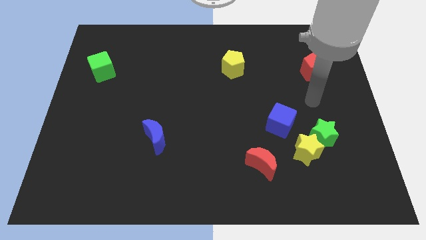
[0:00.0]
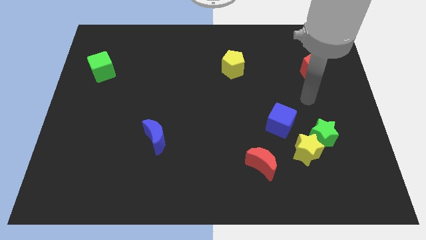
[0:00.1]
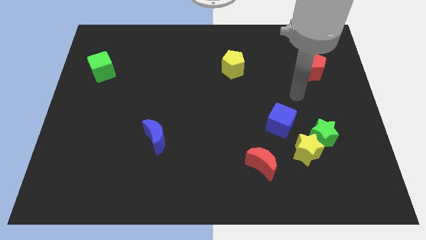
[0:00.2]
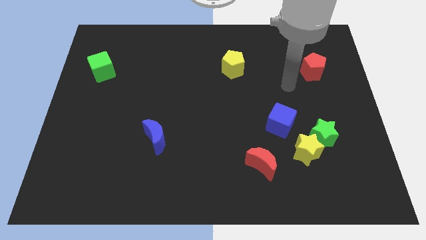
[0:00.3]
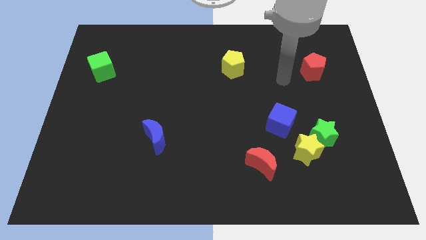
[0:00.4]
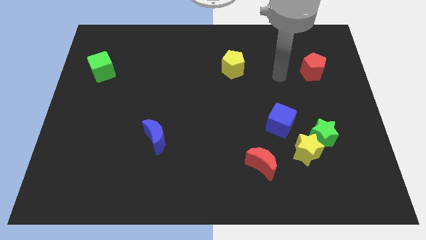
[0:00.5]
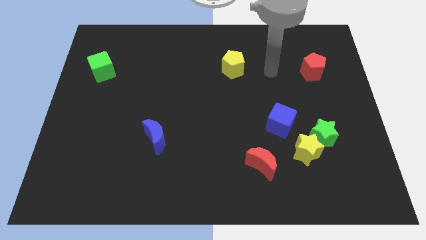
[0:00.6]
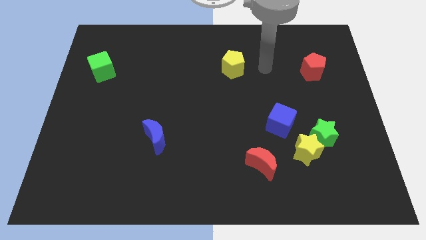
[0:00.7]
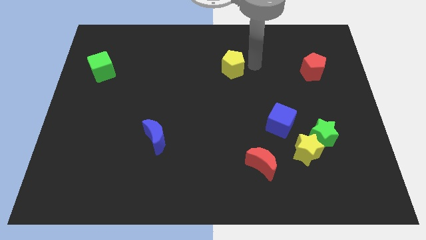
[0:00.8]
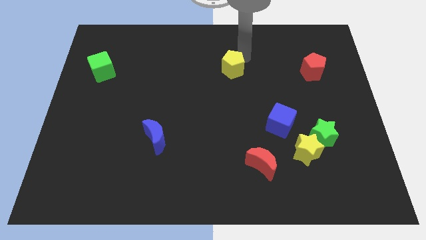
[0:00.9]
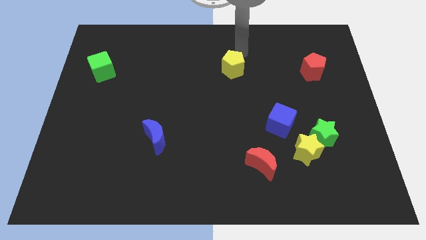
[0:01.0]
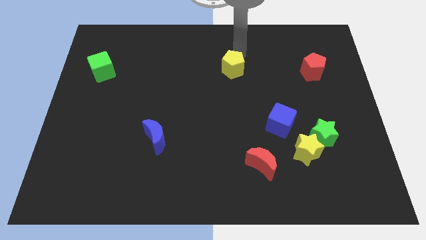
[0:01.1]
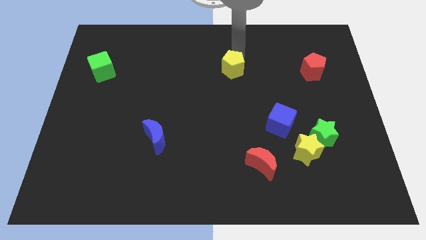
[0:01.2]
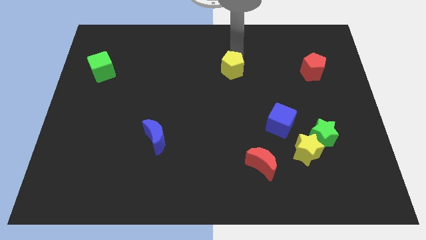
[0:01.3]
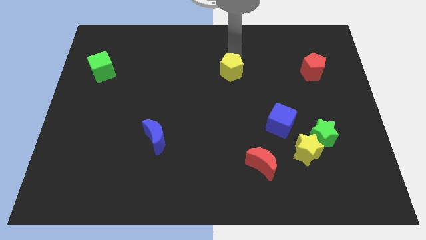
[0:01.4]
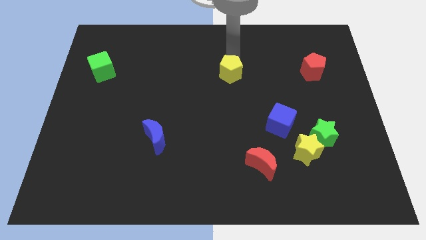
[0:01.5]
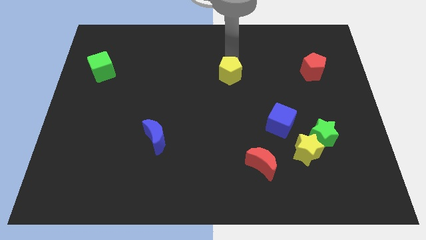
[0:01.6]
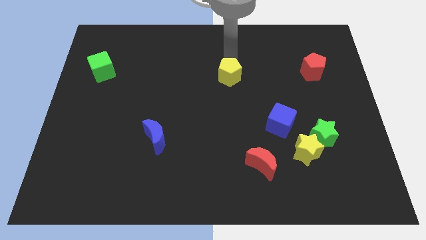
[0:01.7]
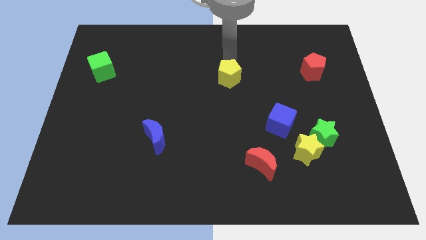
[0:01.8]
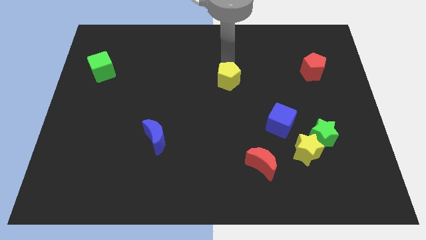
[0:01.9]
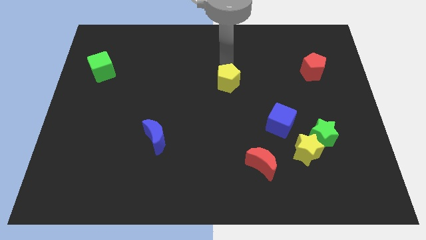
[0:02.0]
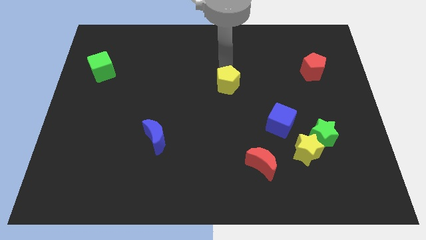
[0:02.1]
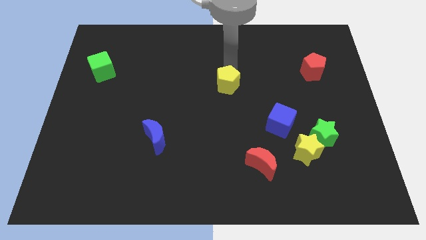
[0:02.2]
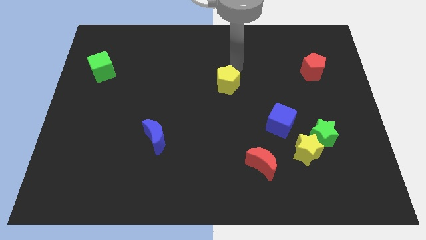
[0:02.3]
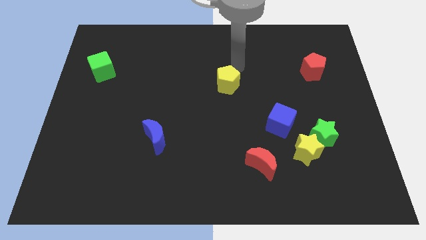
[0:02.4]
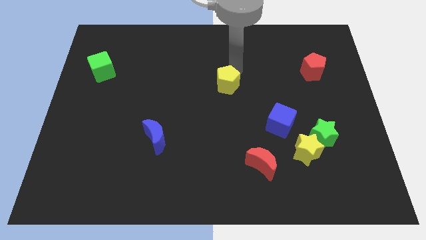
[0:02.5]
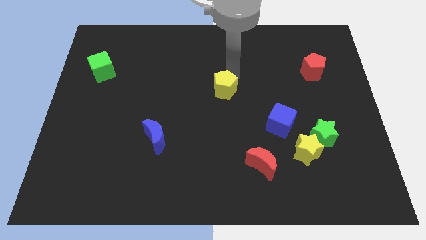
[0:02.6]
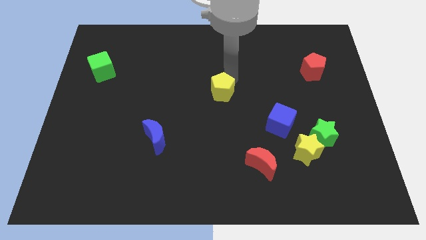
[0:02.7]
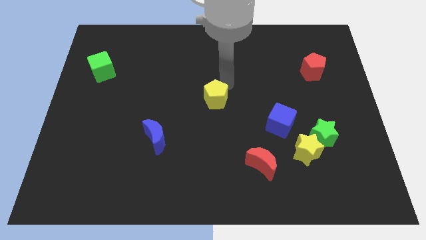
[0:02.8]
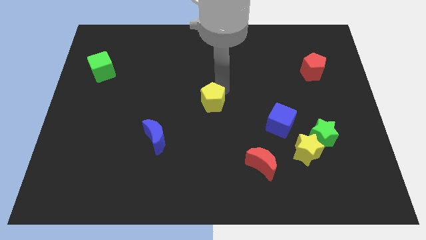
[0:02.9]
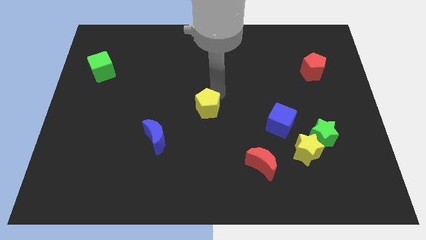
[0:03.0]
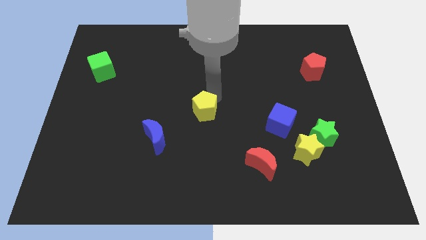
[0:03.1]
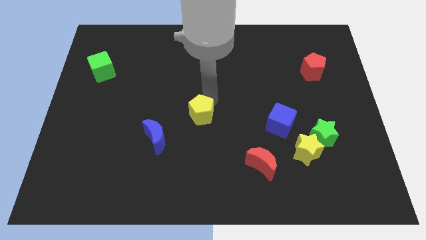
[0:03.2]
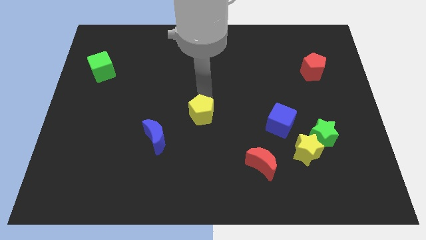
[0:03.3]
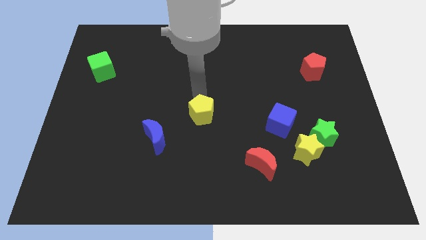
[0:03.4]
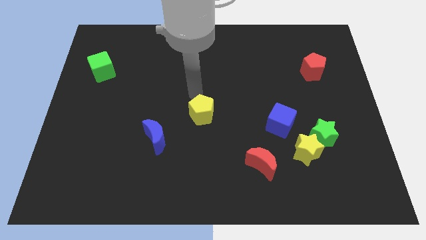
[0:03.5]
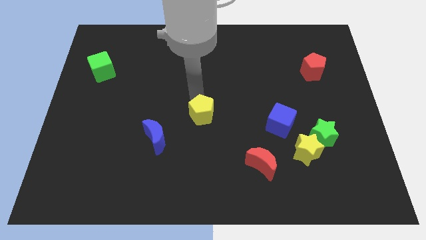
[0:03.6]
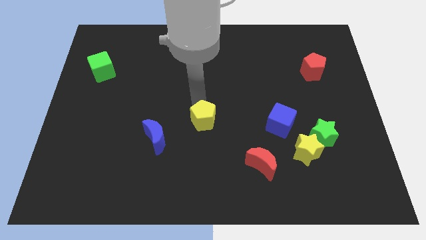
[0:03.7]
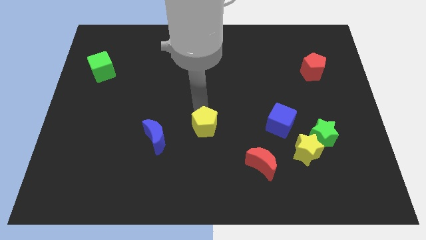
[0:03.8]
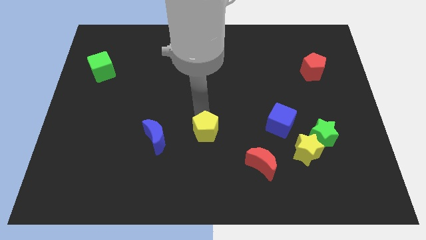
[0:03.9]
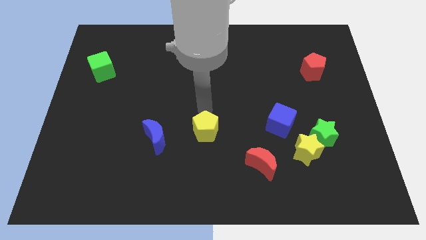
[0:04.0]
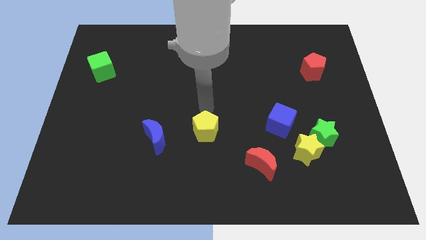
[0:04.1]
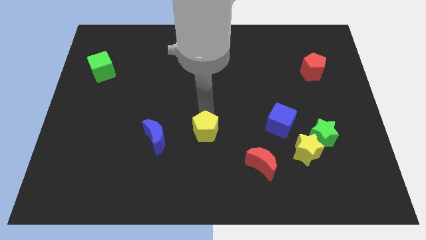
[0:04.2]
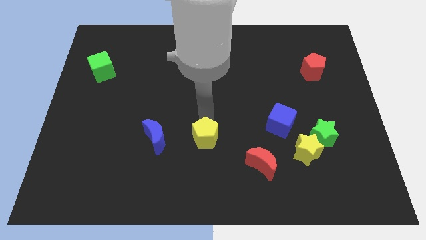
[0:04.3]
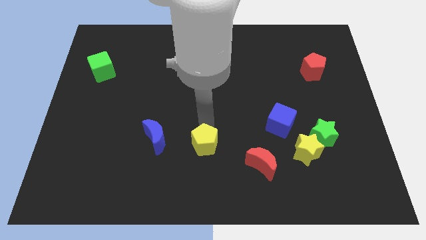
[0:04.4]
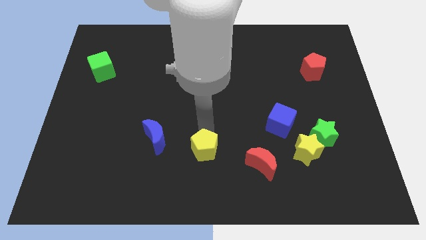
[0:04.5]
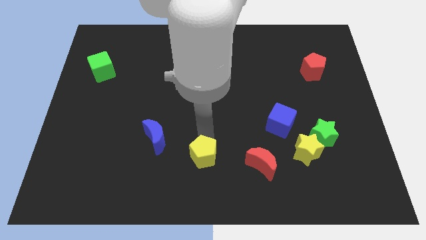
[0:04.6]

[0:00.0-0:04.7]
push the yellow pentagon to the bottom side

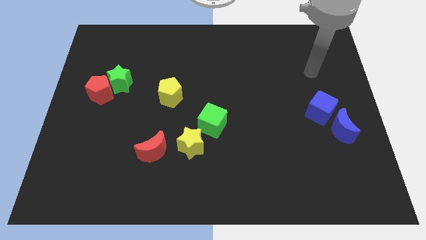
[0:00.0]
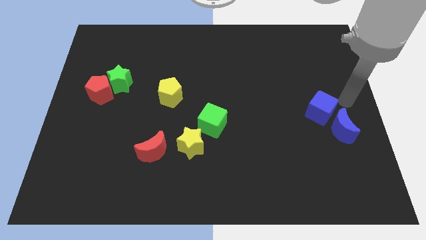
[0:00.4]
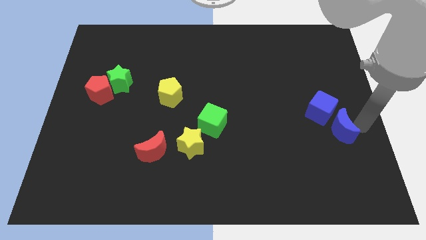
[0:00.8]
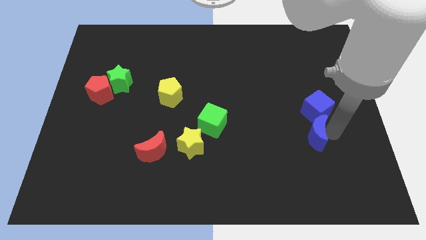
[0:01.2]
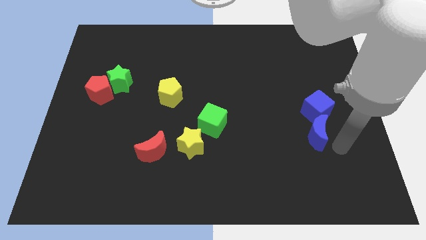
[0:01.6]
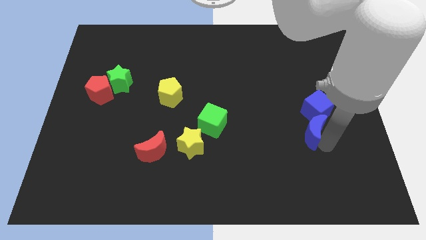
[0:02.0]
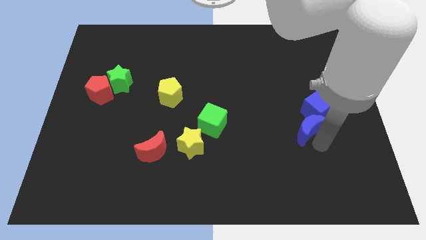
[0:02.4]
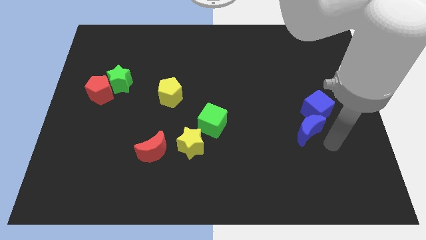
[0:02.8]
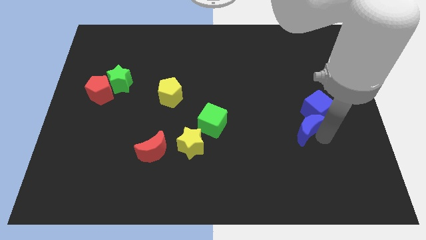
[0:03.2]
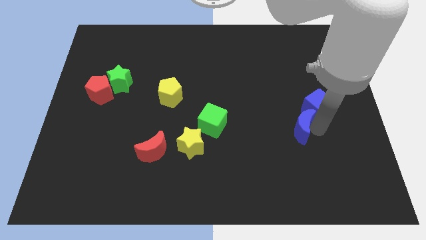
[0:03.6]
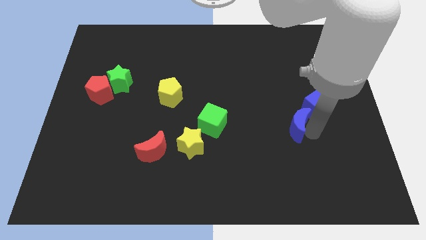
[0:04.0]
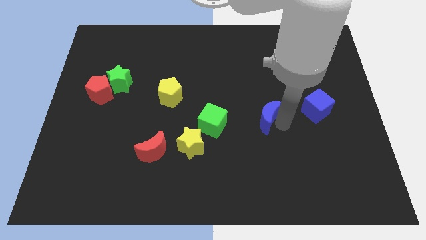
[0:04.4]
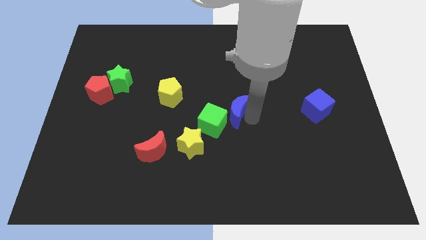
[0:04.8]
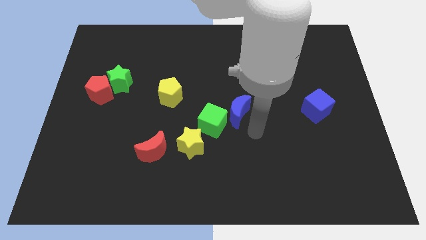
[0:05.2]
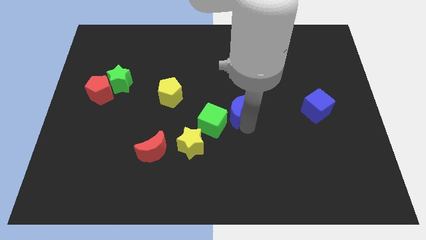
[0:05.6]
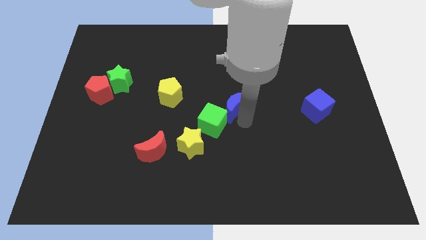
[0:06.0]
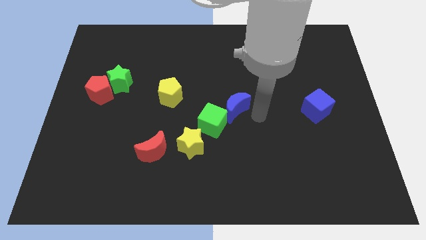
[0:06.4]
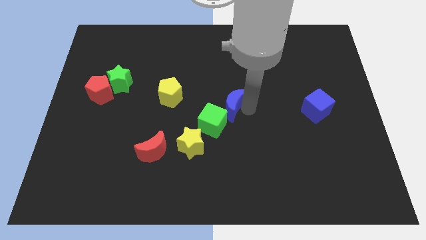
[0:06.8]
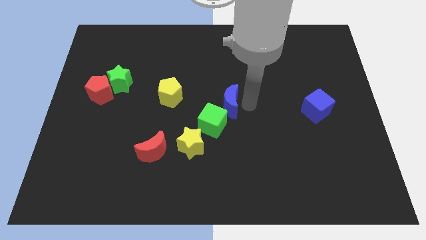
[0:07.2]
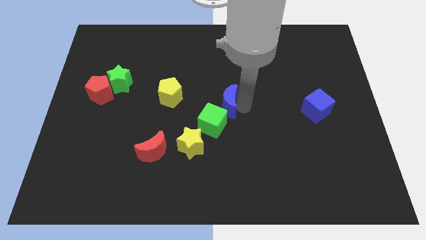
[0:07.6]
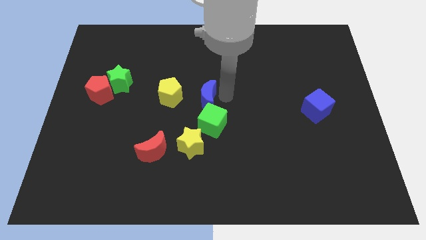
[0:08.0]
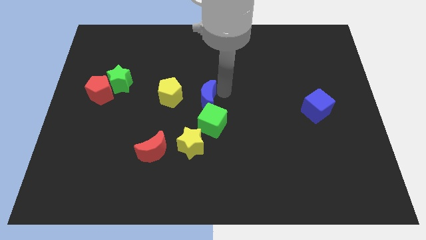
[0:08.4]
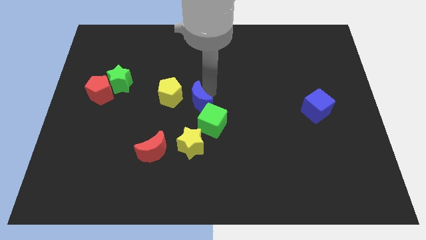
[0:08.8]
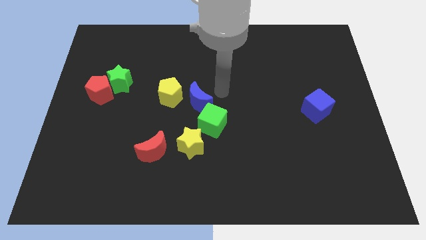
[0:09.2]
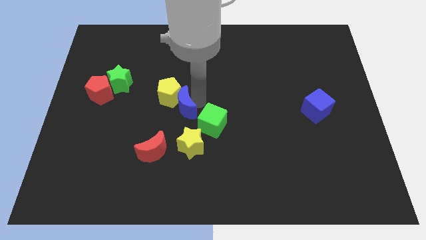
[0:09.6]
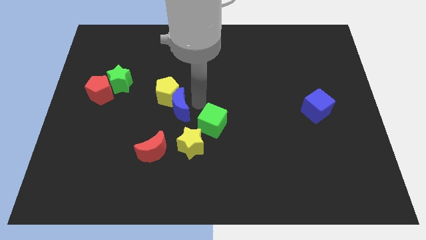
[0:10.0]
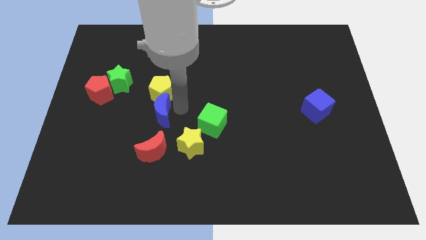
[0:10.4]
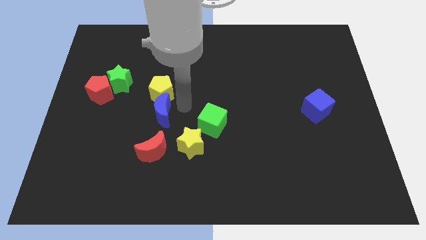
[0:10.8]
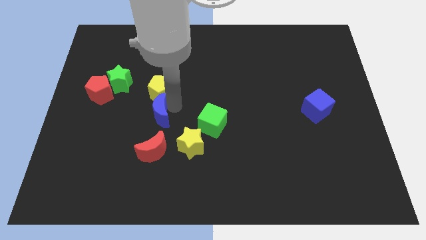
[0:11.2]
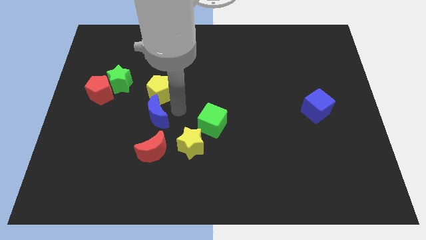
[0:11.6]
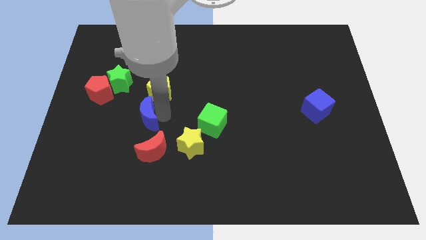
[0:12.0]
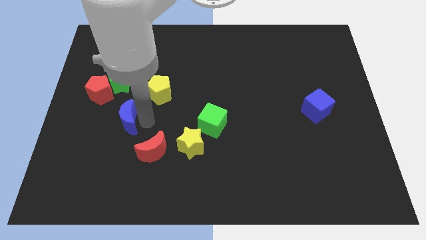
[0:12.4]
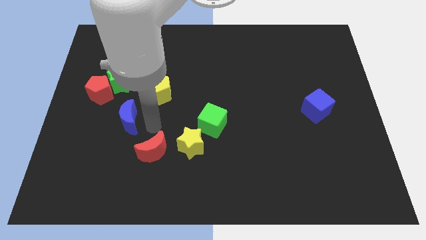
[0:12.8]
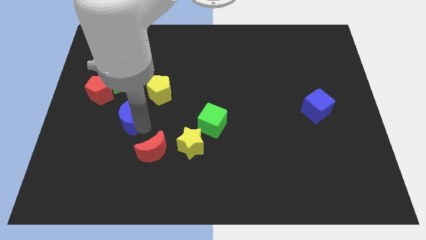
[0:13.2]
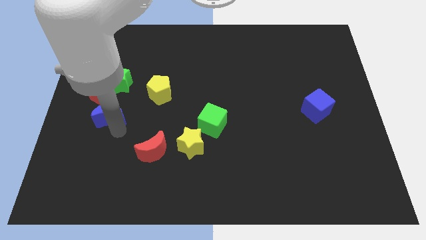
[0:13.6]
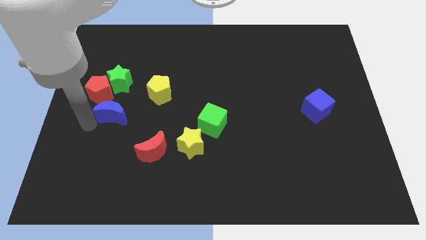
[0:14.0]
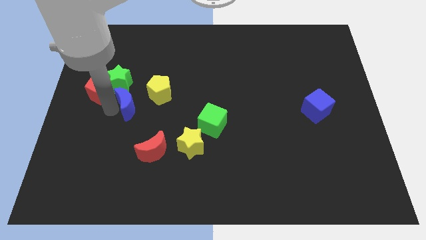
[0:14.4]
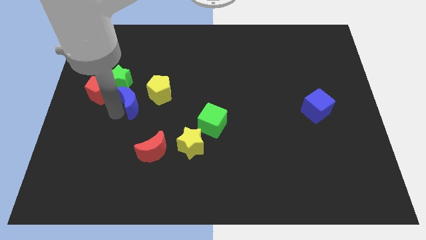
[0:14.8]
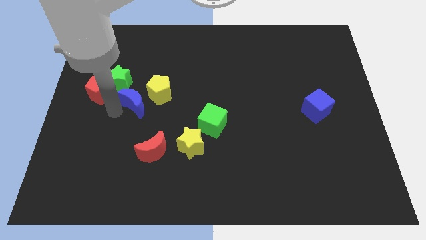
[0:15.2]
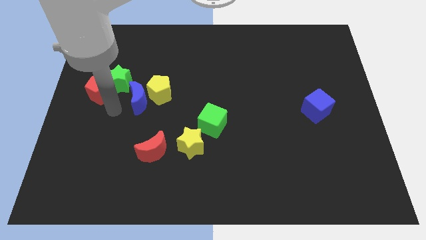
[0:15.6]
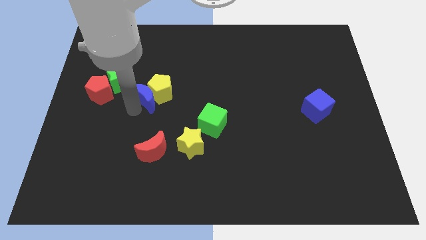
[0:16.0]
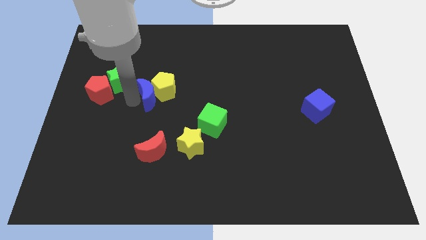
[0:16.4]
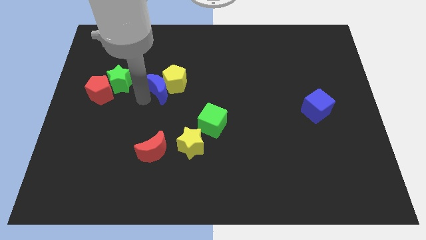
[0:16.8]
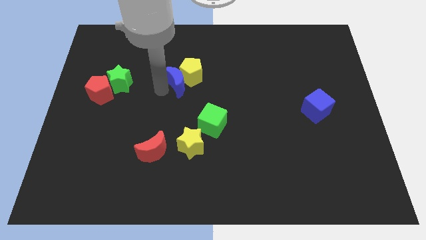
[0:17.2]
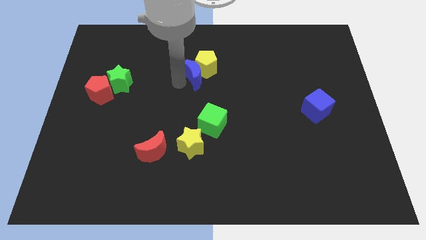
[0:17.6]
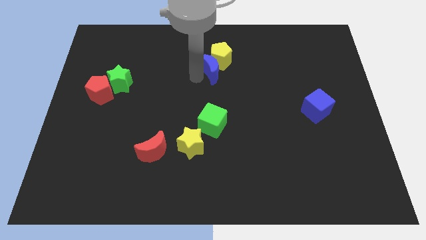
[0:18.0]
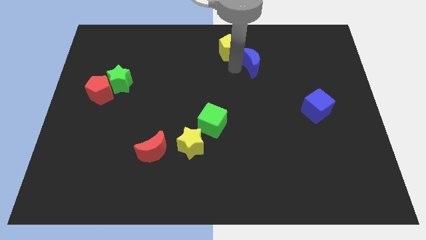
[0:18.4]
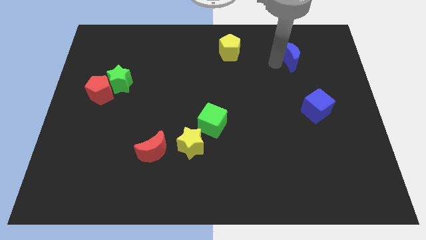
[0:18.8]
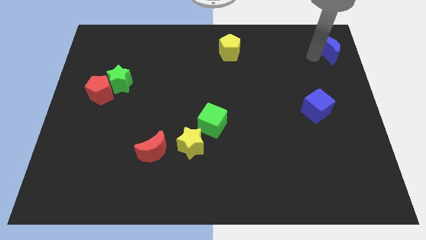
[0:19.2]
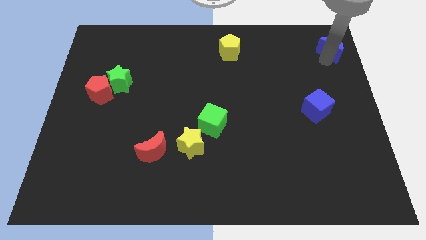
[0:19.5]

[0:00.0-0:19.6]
put the blue moon to the top right corner
